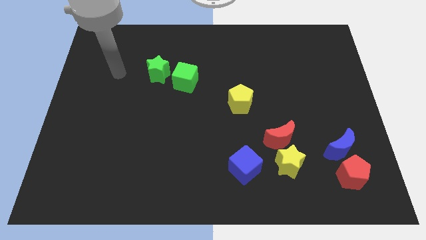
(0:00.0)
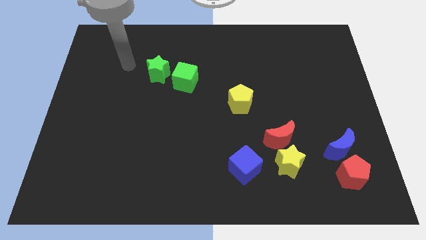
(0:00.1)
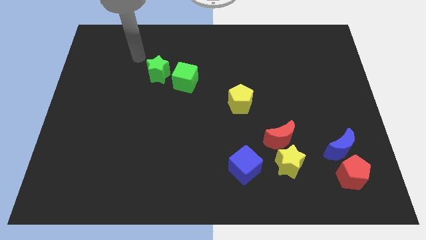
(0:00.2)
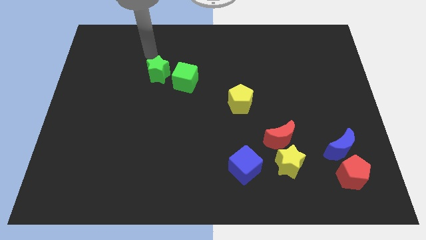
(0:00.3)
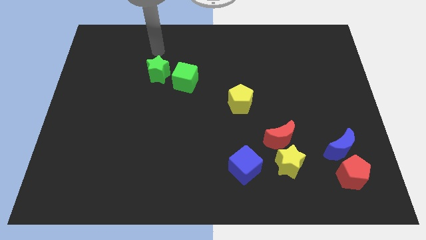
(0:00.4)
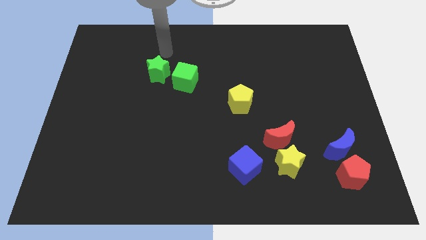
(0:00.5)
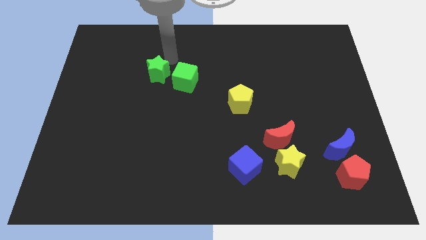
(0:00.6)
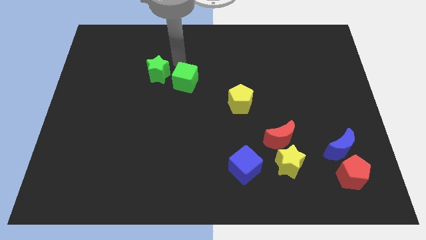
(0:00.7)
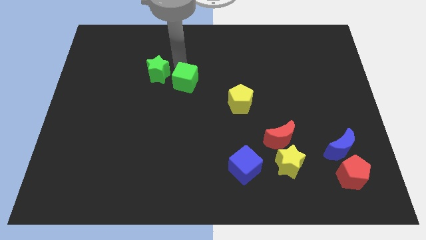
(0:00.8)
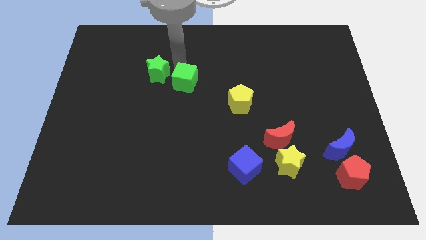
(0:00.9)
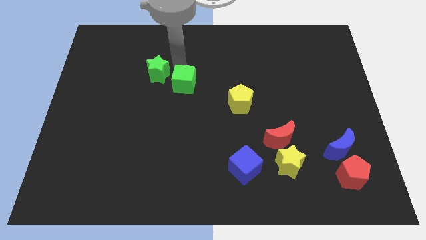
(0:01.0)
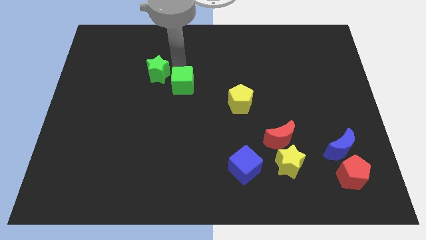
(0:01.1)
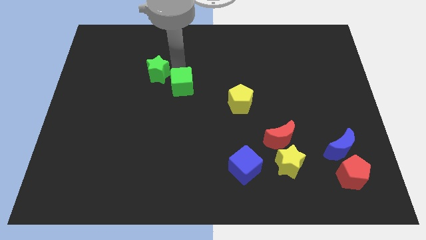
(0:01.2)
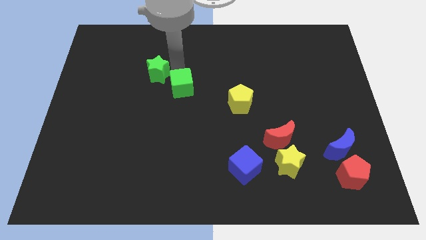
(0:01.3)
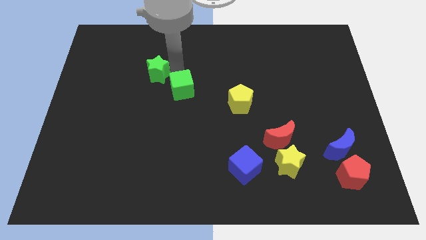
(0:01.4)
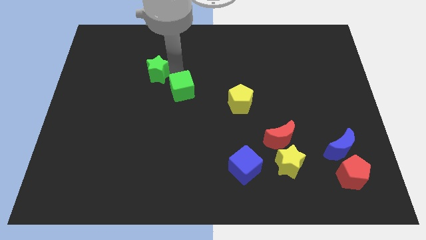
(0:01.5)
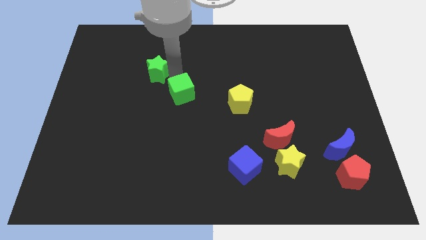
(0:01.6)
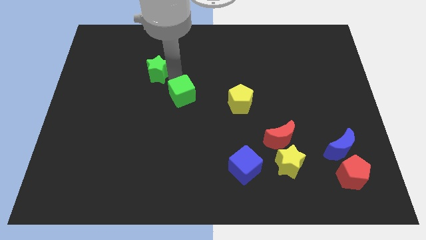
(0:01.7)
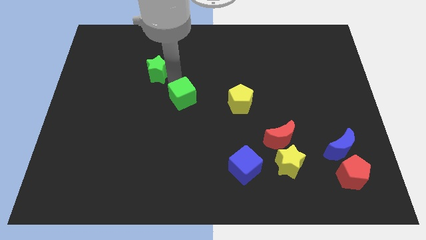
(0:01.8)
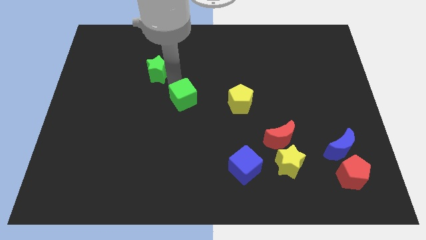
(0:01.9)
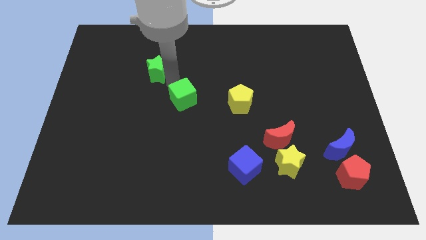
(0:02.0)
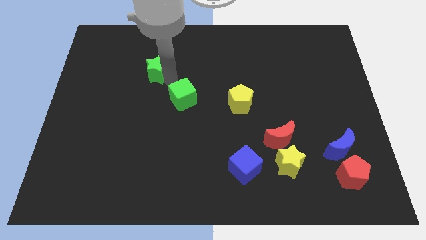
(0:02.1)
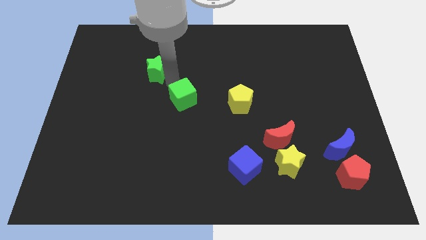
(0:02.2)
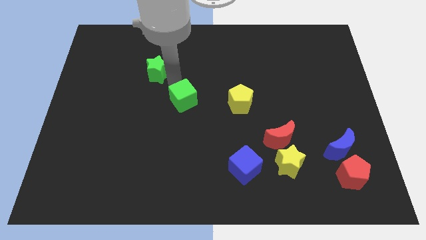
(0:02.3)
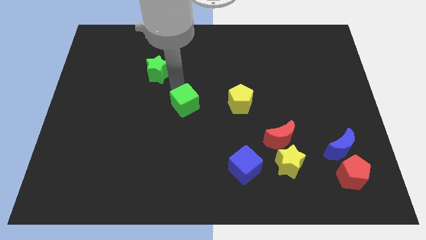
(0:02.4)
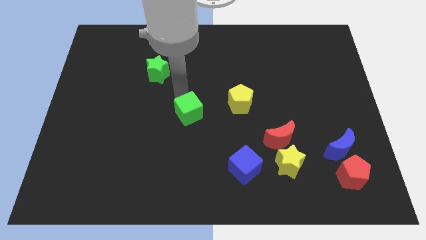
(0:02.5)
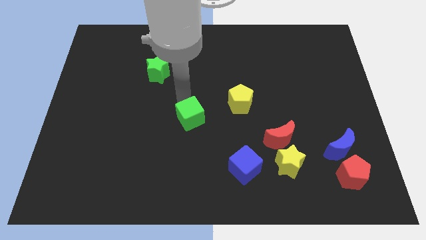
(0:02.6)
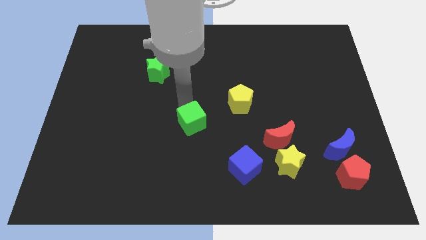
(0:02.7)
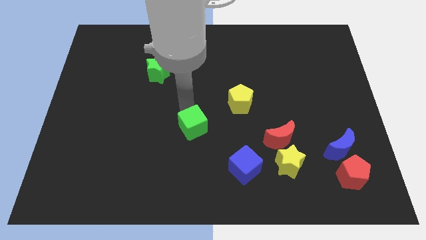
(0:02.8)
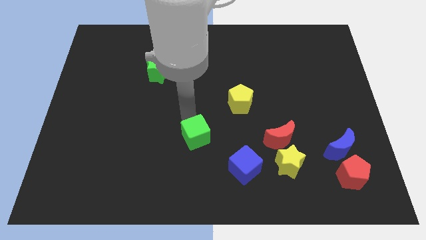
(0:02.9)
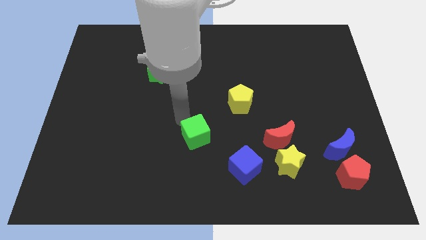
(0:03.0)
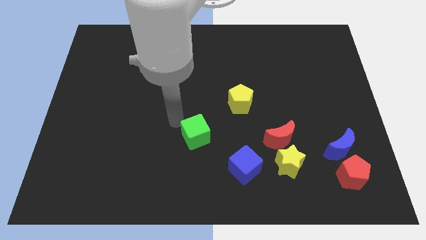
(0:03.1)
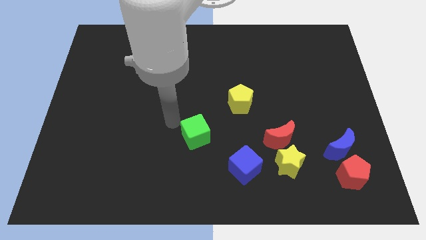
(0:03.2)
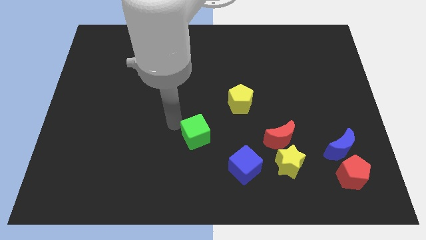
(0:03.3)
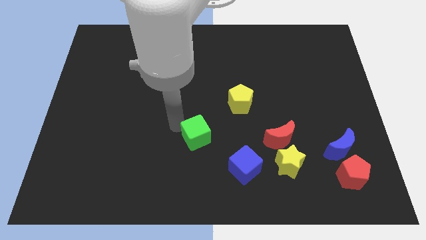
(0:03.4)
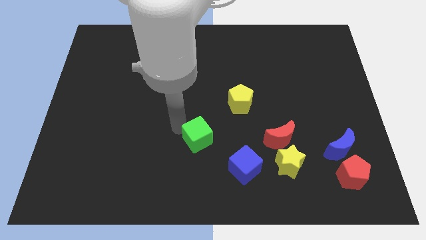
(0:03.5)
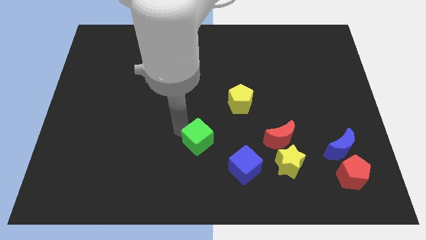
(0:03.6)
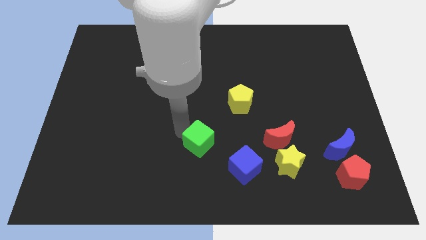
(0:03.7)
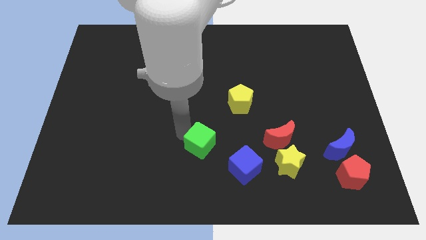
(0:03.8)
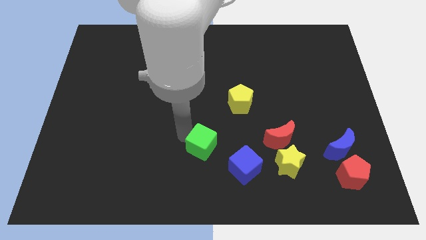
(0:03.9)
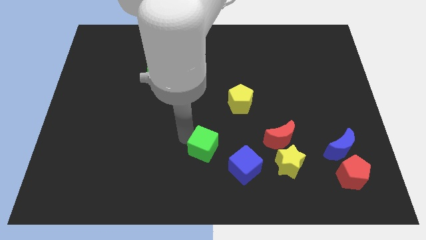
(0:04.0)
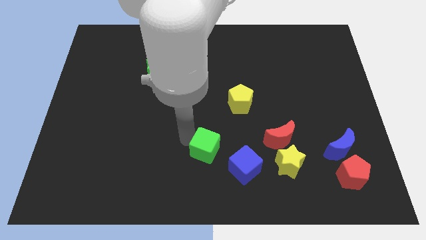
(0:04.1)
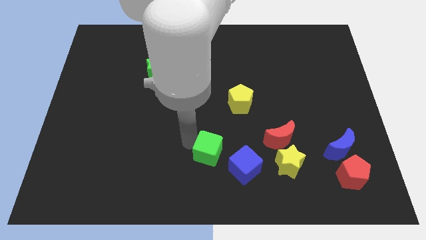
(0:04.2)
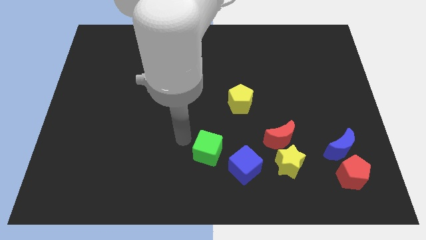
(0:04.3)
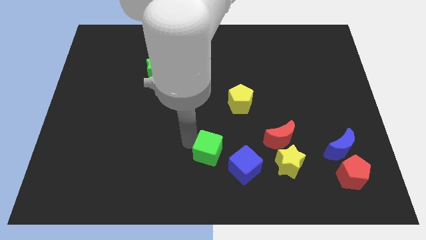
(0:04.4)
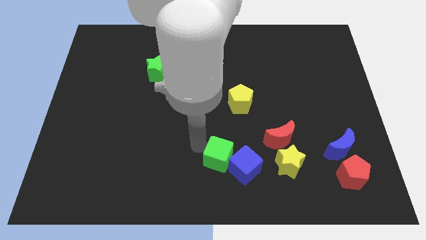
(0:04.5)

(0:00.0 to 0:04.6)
push the green cube to the blue cube

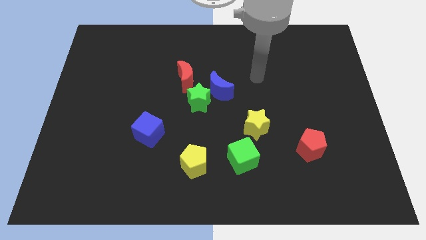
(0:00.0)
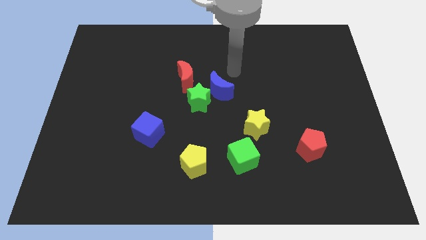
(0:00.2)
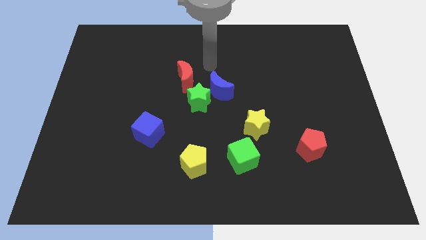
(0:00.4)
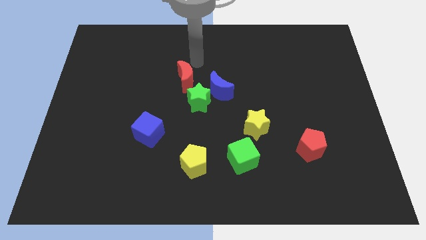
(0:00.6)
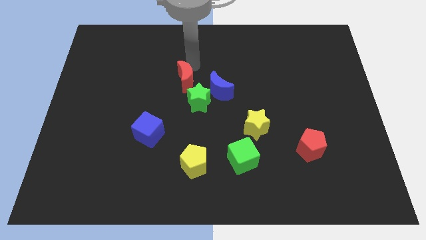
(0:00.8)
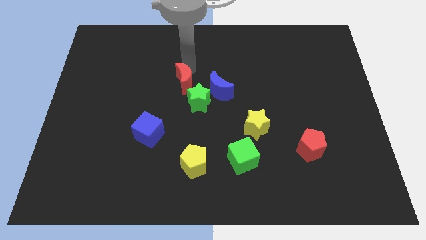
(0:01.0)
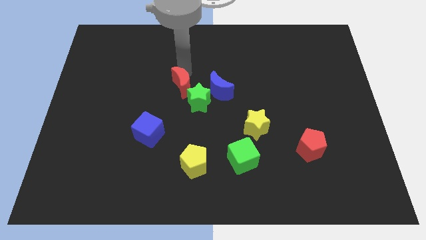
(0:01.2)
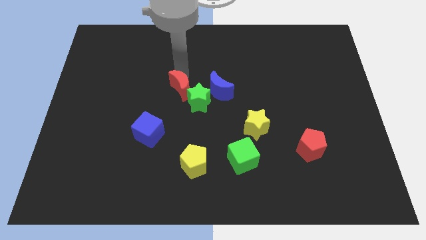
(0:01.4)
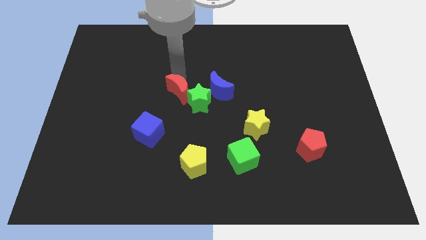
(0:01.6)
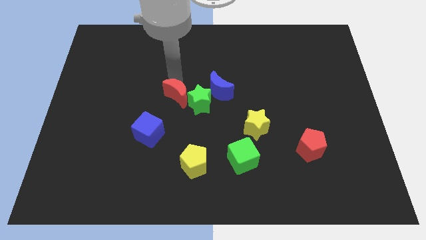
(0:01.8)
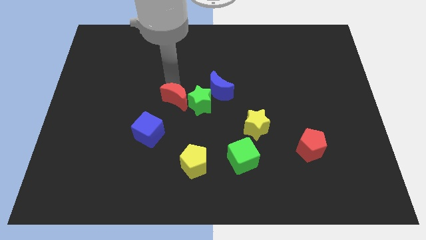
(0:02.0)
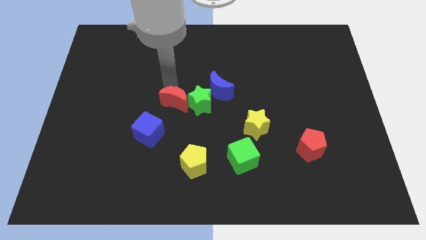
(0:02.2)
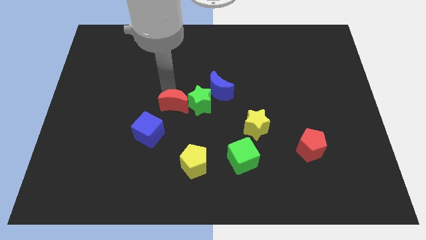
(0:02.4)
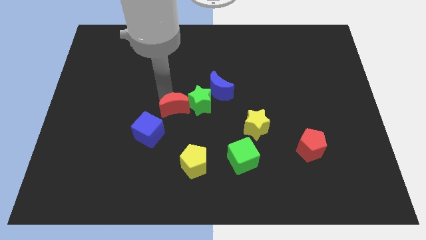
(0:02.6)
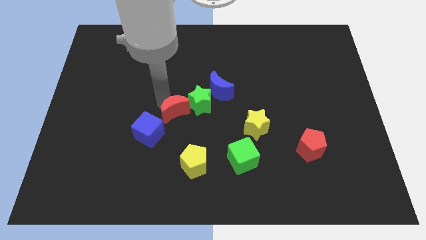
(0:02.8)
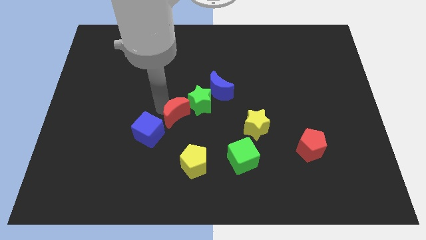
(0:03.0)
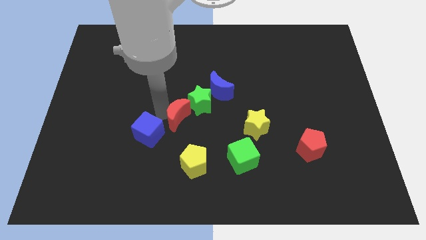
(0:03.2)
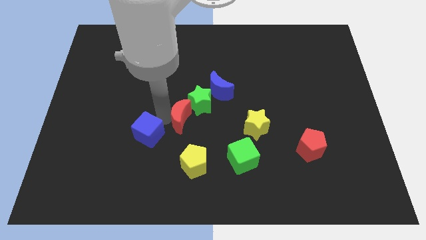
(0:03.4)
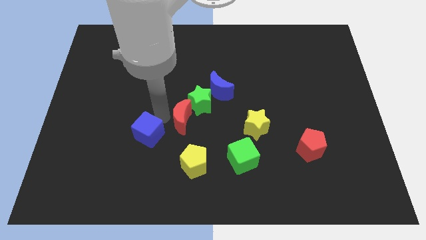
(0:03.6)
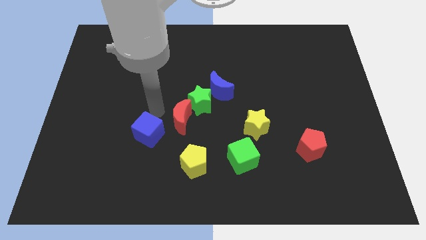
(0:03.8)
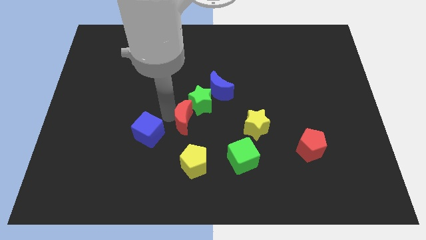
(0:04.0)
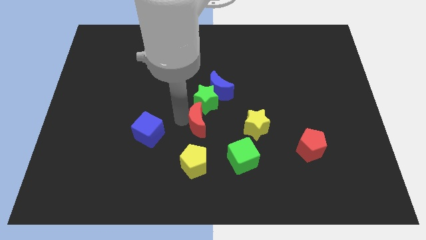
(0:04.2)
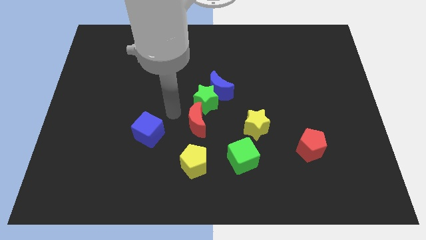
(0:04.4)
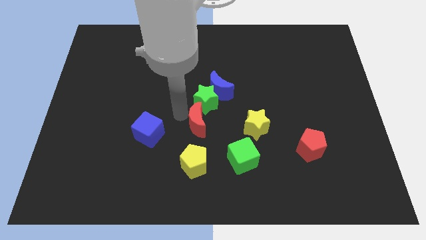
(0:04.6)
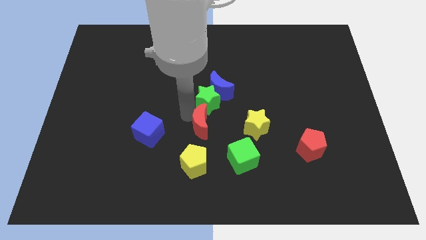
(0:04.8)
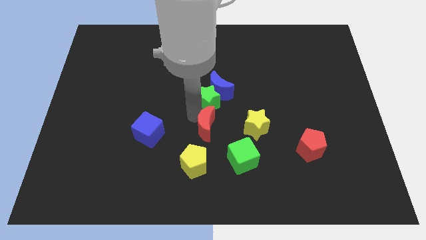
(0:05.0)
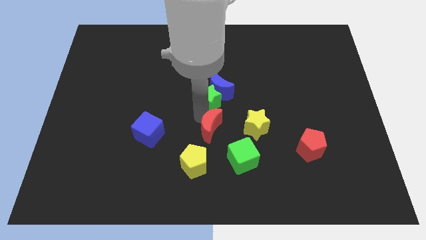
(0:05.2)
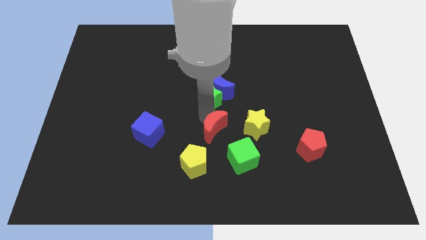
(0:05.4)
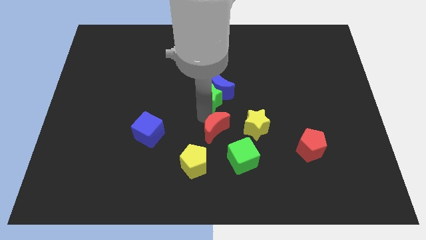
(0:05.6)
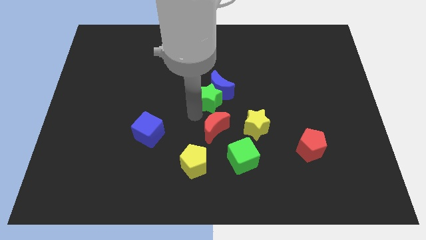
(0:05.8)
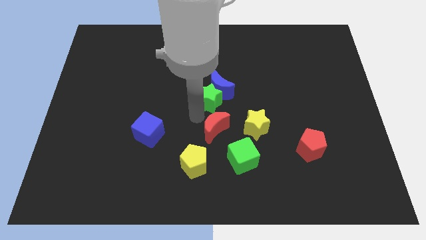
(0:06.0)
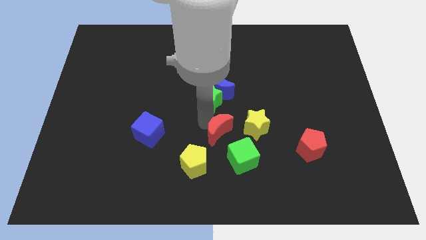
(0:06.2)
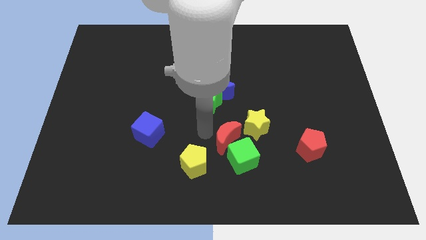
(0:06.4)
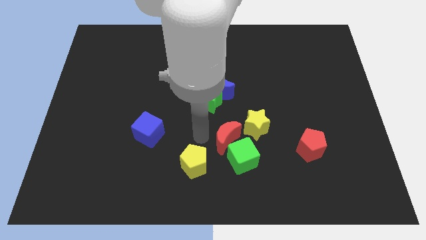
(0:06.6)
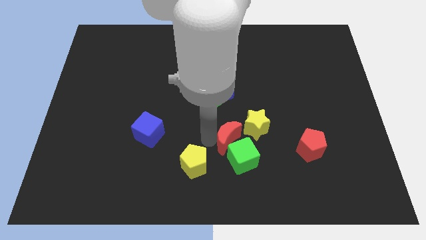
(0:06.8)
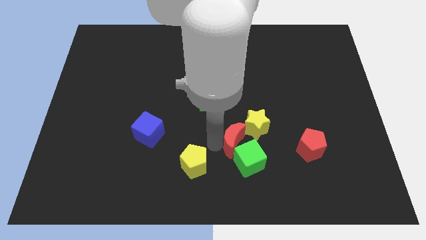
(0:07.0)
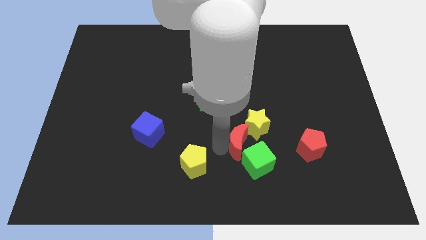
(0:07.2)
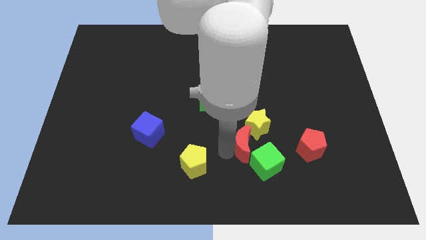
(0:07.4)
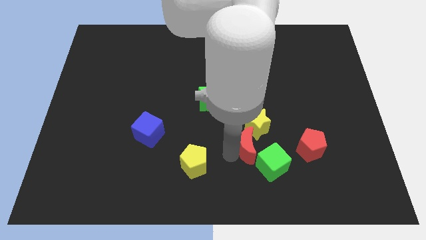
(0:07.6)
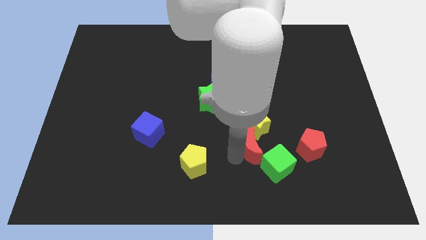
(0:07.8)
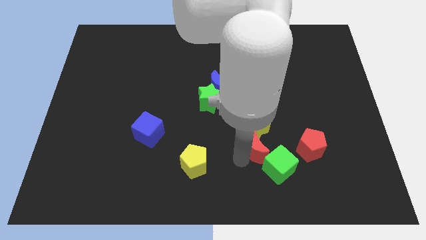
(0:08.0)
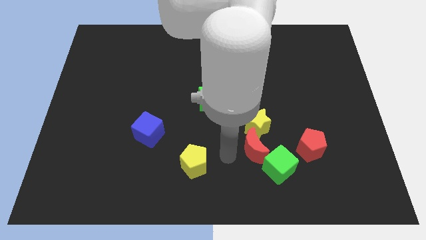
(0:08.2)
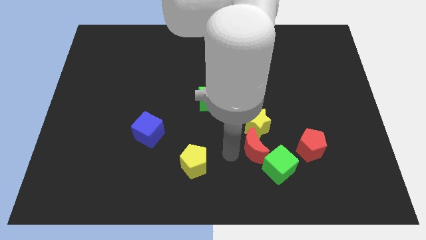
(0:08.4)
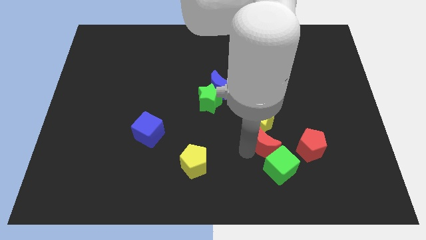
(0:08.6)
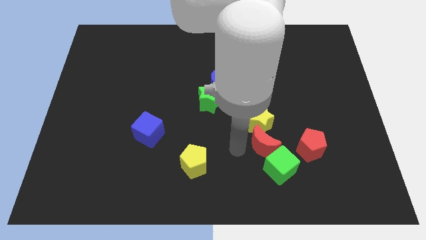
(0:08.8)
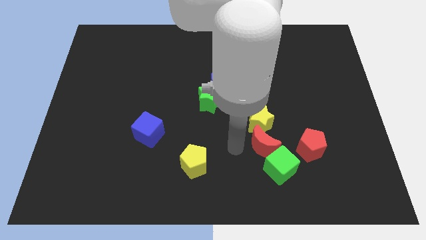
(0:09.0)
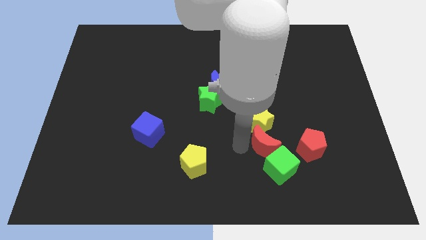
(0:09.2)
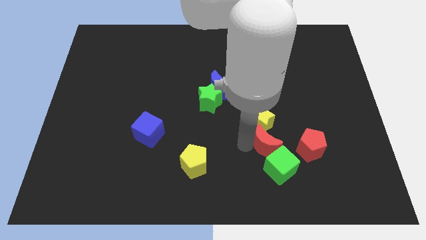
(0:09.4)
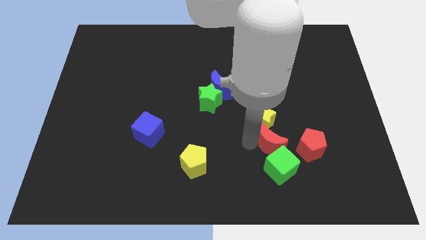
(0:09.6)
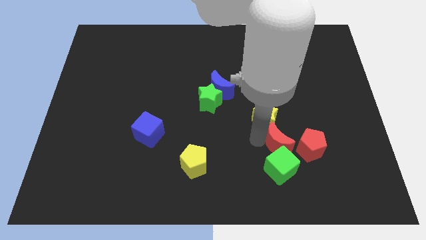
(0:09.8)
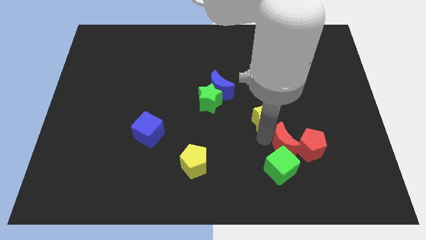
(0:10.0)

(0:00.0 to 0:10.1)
move the red moon towards the red pentagon
